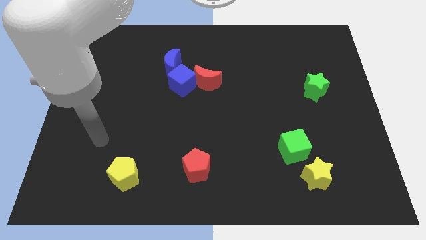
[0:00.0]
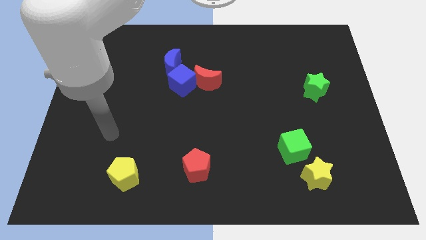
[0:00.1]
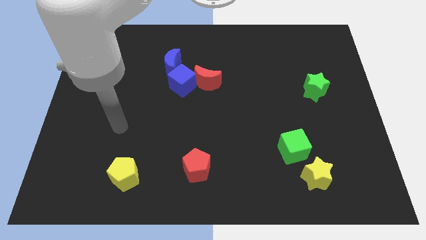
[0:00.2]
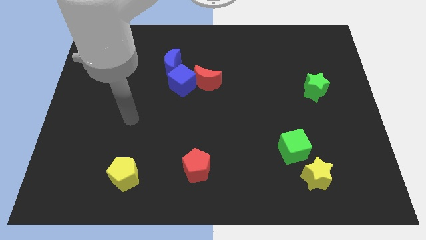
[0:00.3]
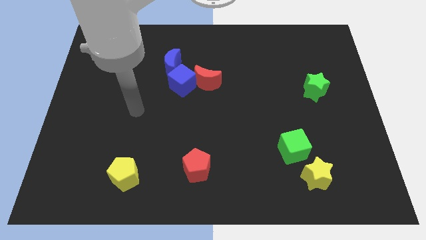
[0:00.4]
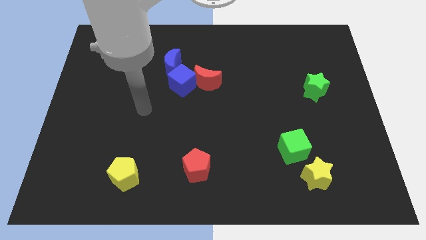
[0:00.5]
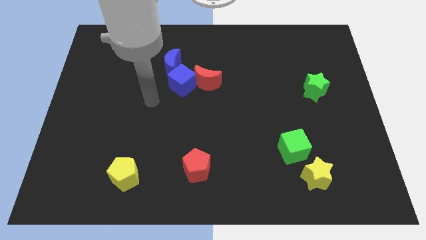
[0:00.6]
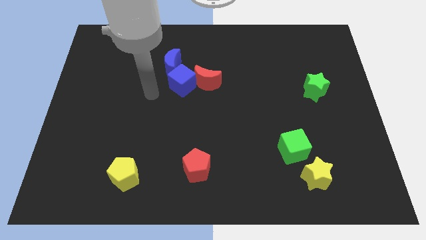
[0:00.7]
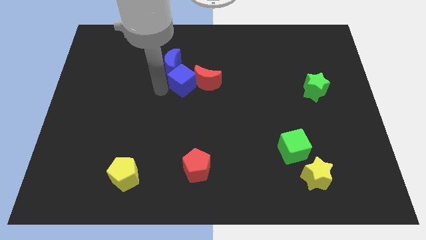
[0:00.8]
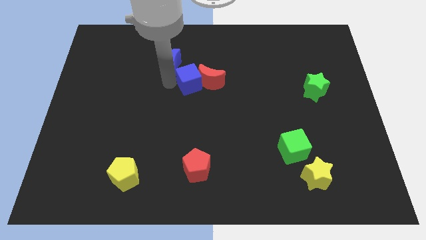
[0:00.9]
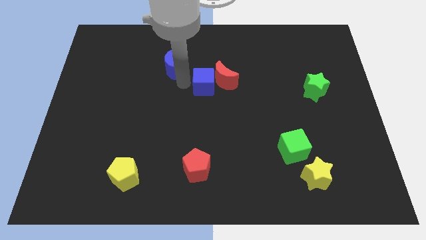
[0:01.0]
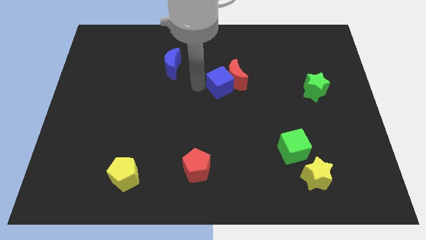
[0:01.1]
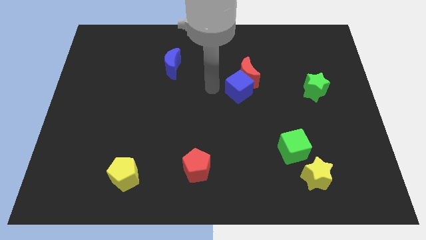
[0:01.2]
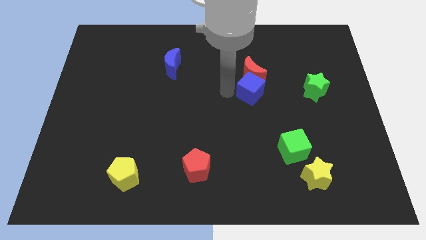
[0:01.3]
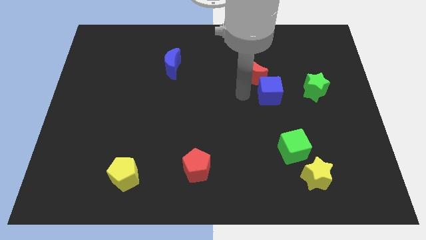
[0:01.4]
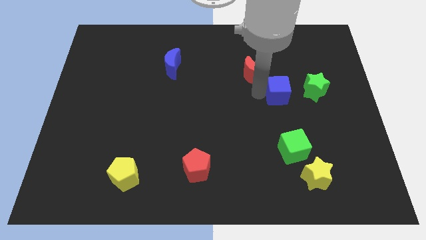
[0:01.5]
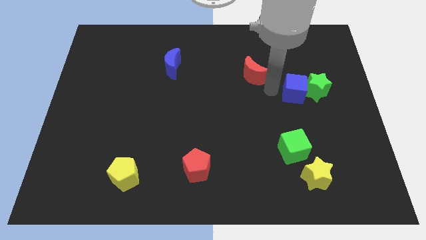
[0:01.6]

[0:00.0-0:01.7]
move the red moon away from the blue cube

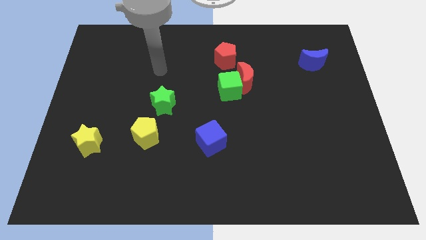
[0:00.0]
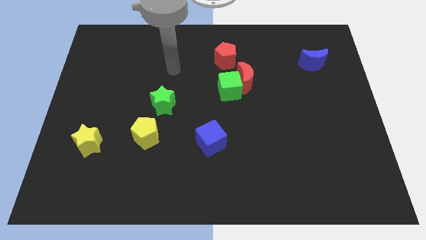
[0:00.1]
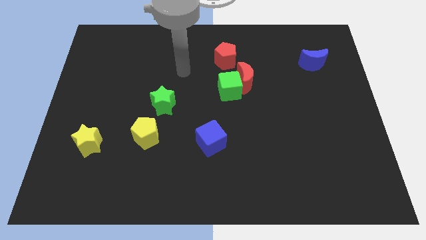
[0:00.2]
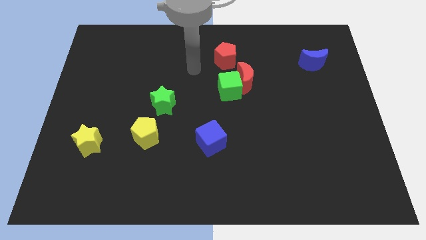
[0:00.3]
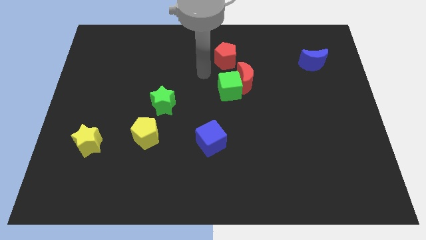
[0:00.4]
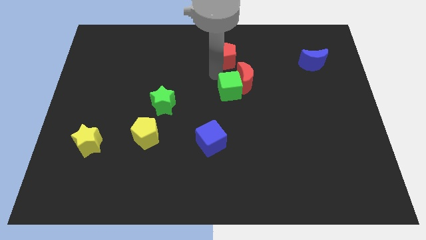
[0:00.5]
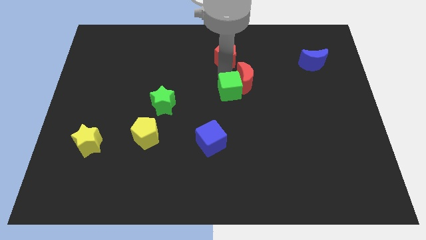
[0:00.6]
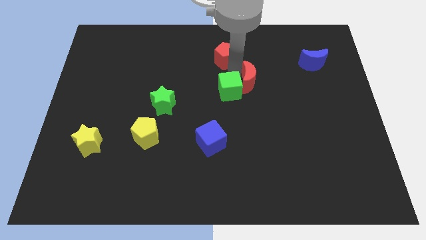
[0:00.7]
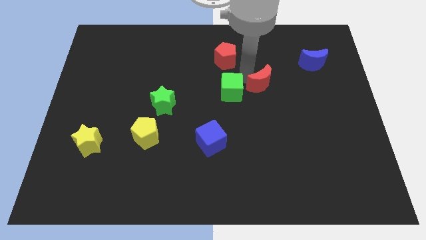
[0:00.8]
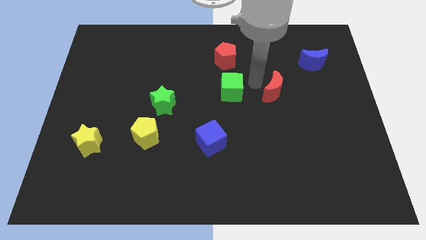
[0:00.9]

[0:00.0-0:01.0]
separate the green cube from the red moon

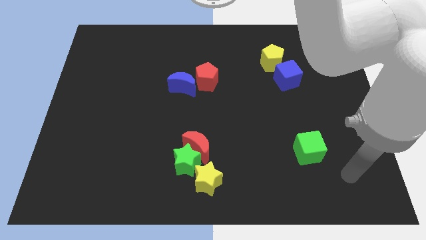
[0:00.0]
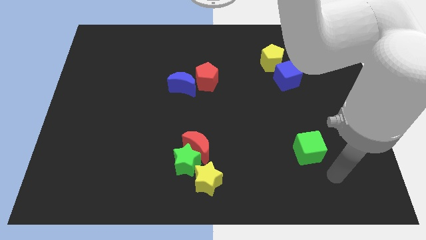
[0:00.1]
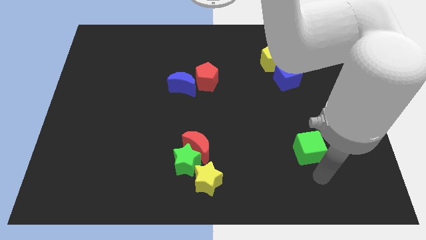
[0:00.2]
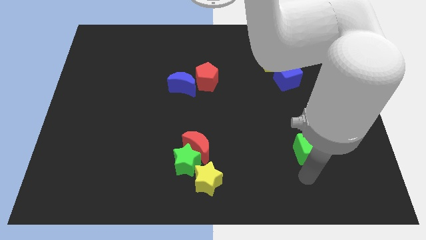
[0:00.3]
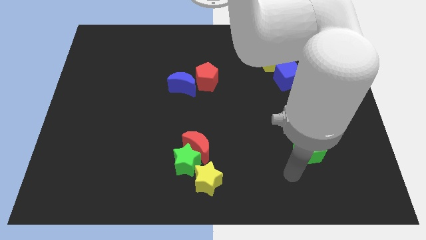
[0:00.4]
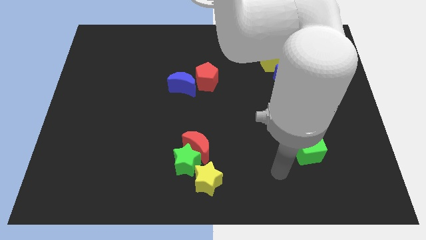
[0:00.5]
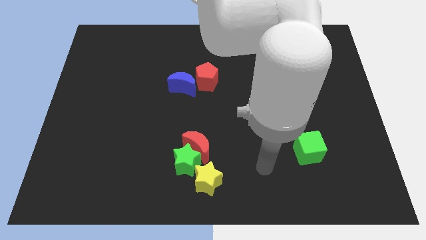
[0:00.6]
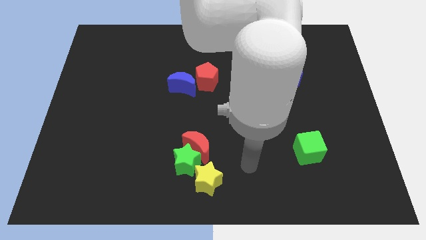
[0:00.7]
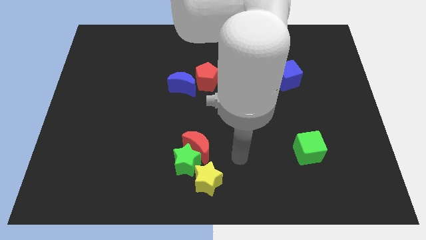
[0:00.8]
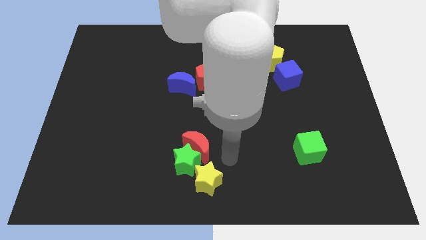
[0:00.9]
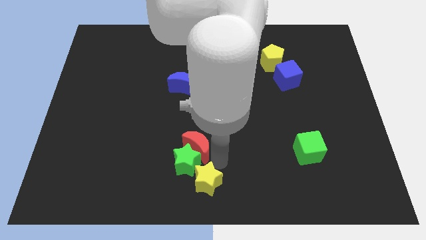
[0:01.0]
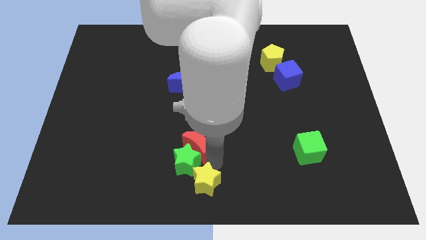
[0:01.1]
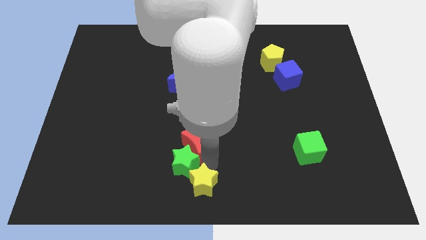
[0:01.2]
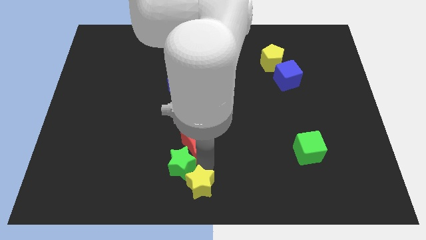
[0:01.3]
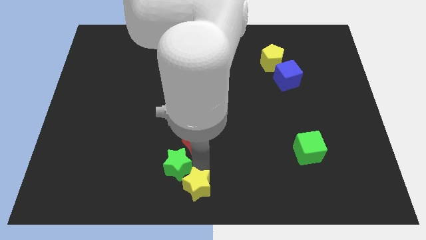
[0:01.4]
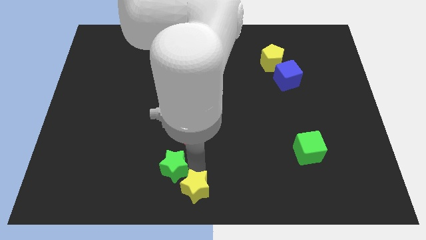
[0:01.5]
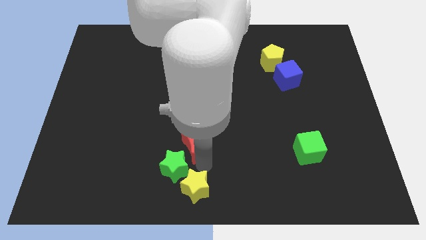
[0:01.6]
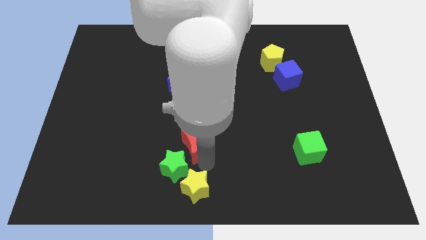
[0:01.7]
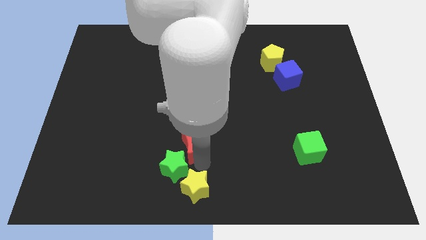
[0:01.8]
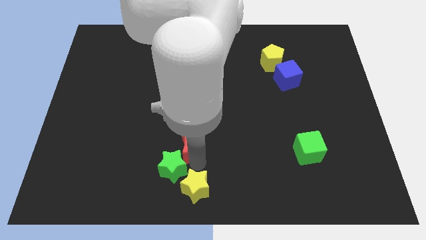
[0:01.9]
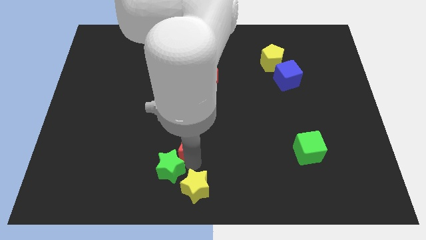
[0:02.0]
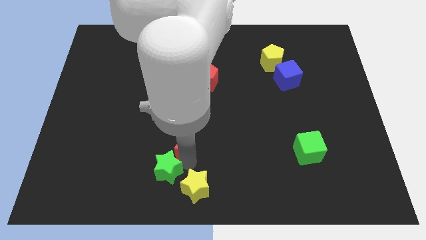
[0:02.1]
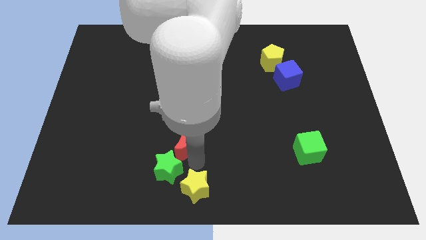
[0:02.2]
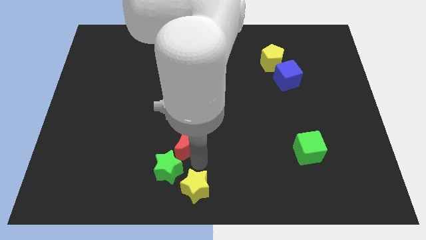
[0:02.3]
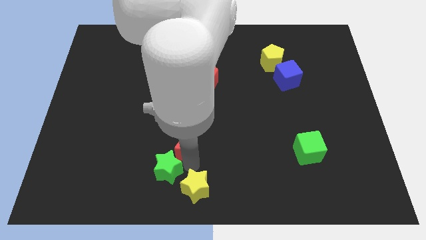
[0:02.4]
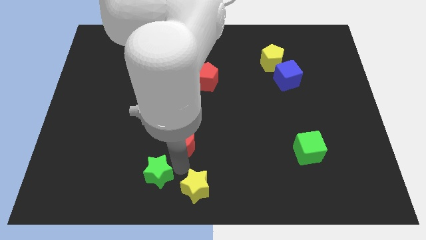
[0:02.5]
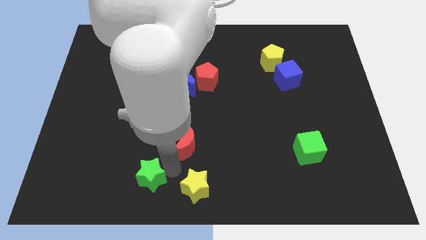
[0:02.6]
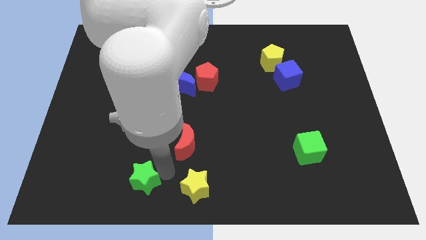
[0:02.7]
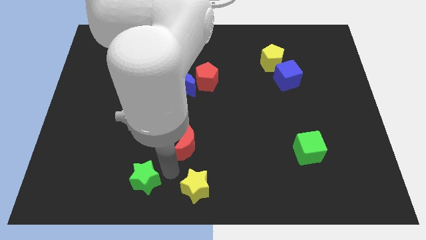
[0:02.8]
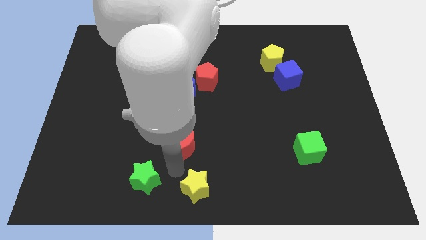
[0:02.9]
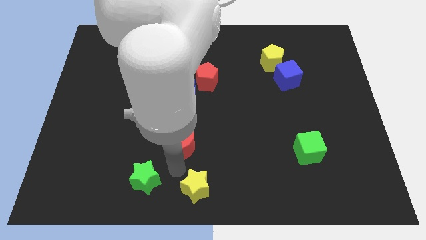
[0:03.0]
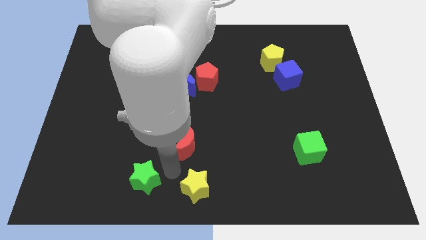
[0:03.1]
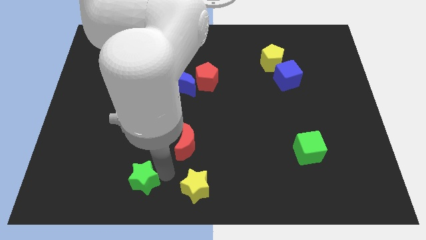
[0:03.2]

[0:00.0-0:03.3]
move the green star away from the red moon and yellow star

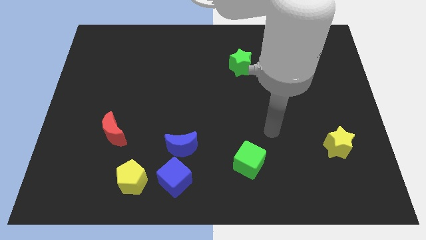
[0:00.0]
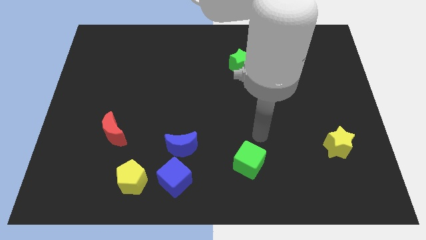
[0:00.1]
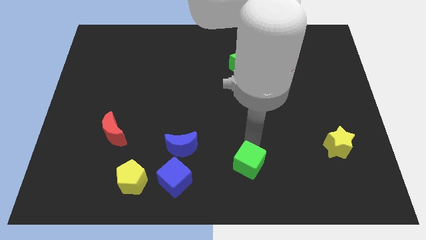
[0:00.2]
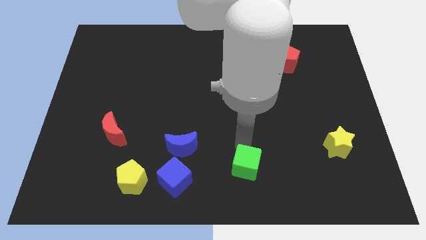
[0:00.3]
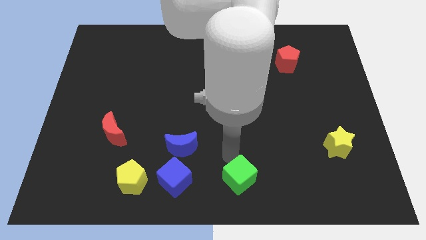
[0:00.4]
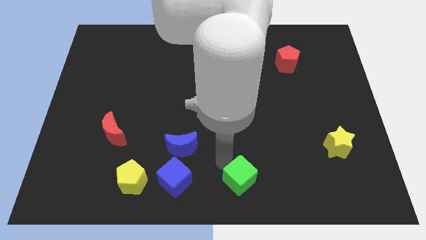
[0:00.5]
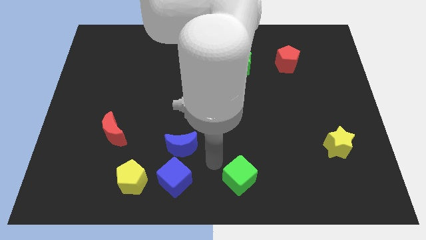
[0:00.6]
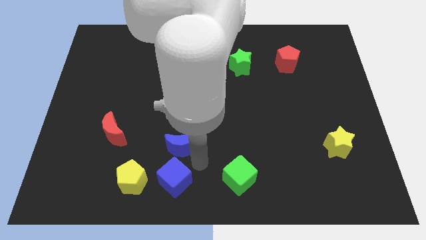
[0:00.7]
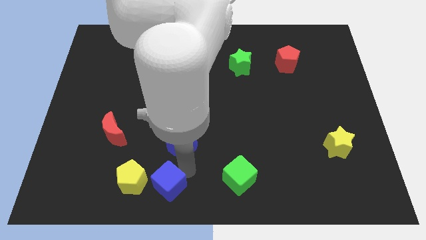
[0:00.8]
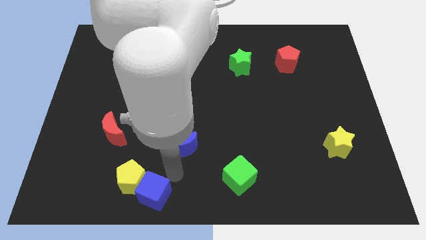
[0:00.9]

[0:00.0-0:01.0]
pull the blue moon apart from the blue cube

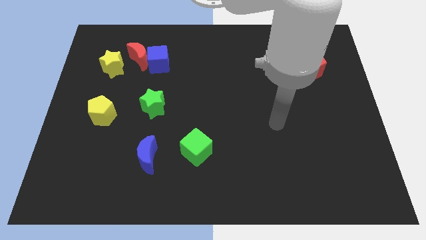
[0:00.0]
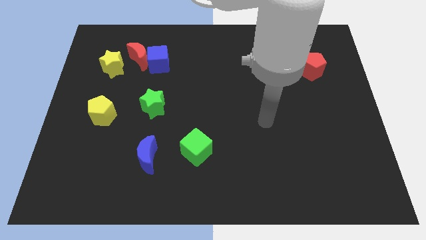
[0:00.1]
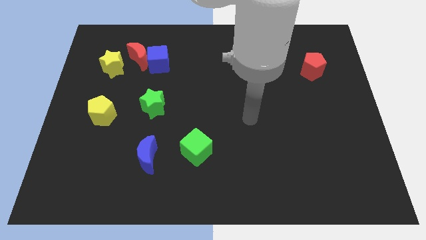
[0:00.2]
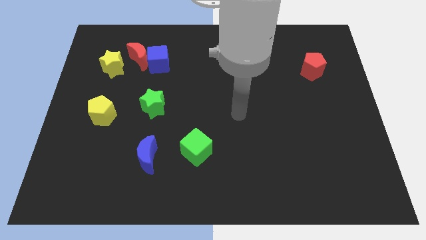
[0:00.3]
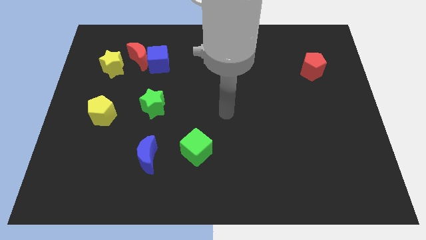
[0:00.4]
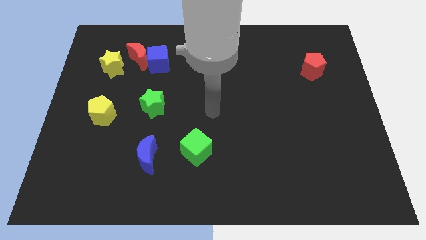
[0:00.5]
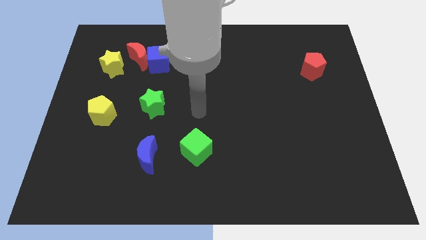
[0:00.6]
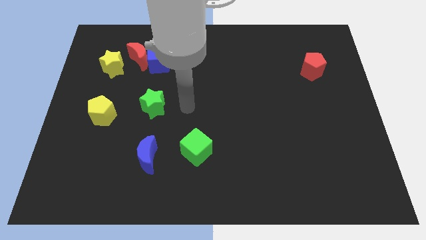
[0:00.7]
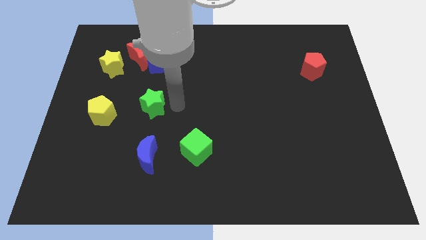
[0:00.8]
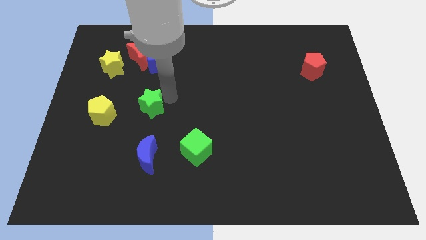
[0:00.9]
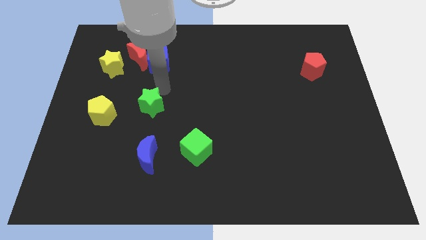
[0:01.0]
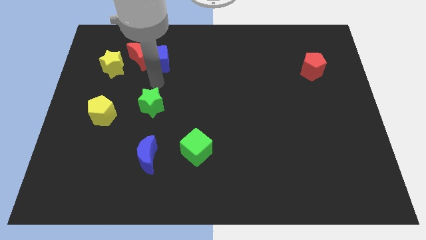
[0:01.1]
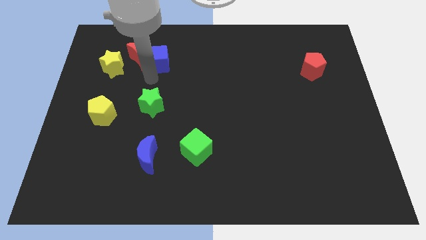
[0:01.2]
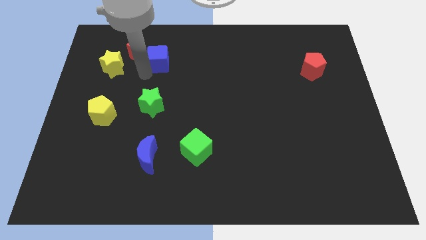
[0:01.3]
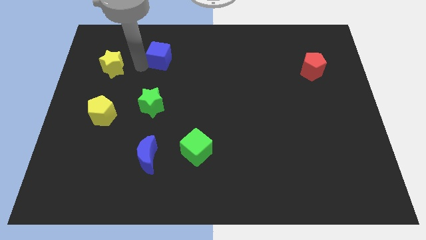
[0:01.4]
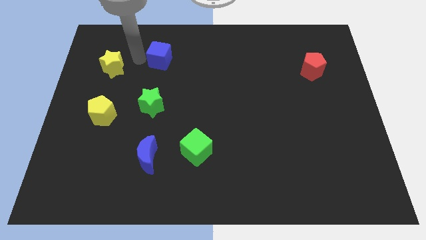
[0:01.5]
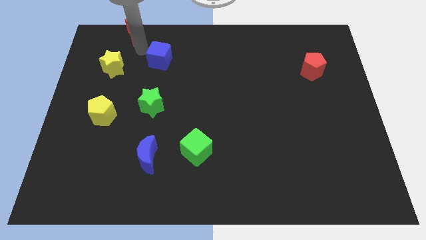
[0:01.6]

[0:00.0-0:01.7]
separate the blue cube from the red moon

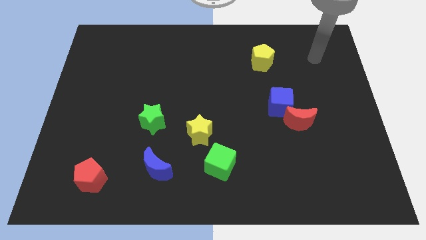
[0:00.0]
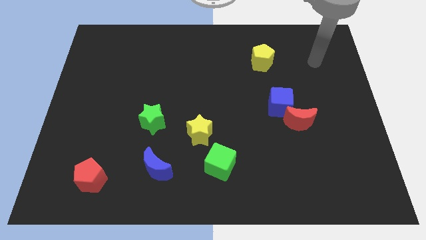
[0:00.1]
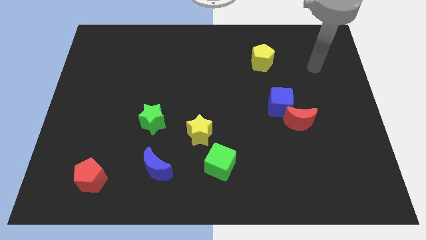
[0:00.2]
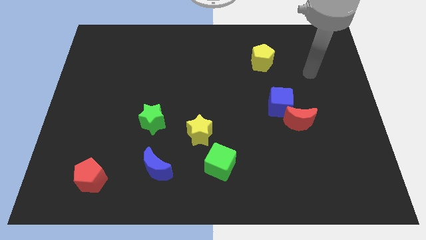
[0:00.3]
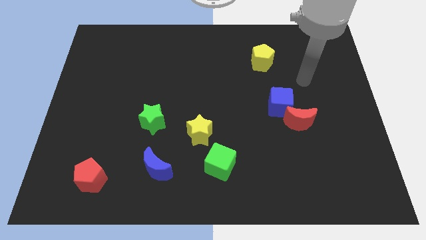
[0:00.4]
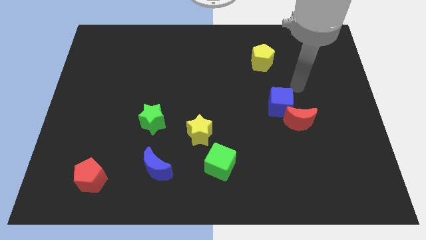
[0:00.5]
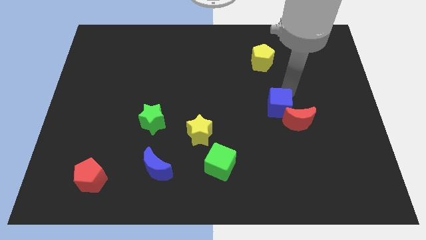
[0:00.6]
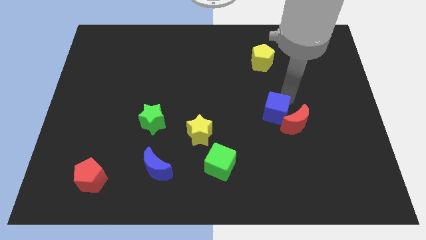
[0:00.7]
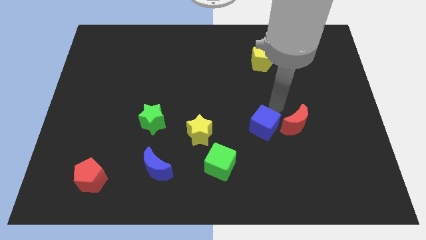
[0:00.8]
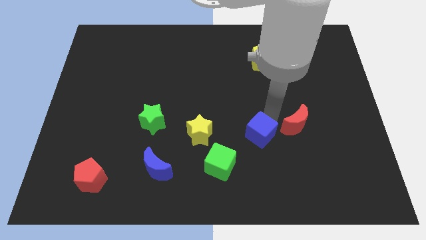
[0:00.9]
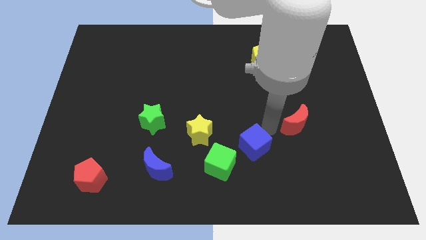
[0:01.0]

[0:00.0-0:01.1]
pull the red moon apart from the blue cube